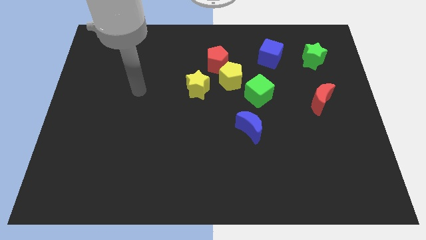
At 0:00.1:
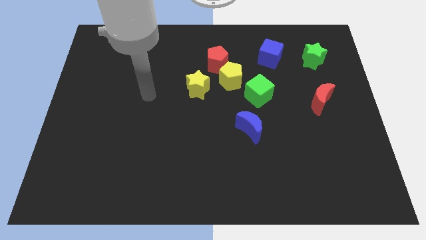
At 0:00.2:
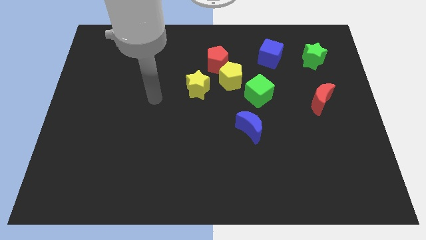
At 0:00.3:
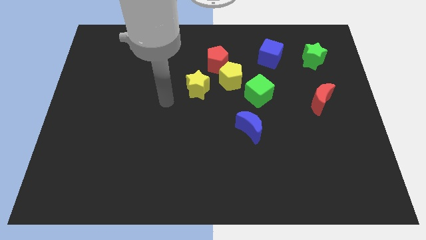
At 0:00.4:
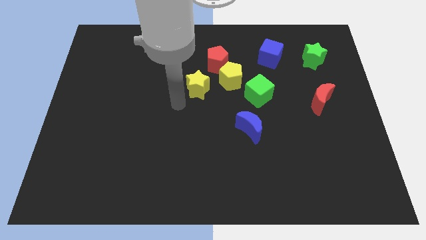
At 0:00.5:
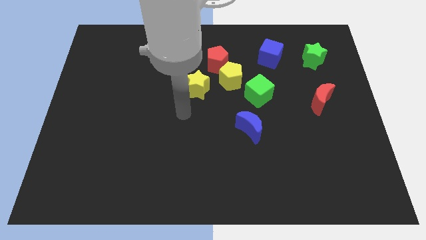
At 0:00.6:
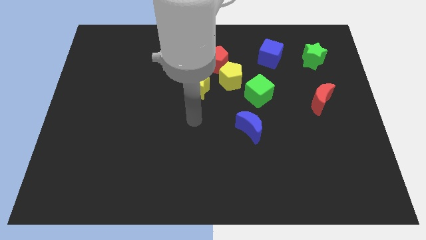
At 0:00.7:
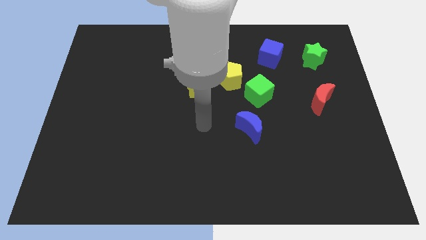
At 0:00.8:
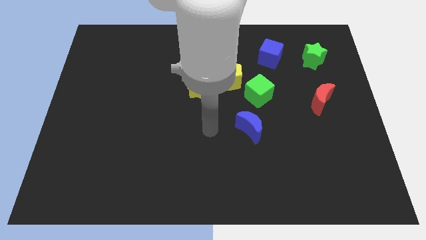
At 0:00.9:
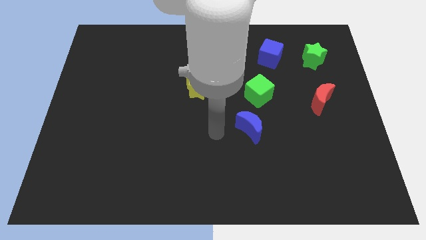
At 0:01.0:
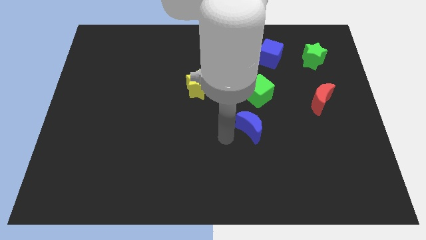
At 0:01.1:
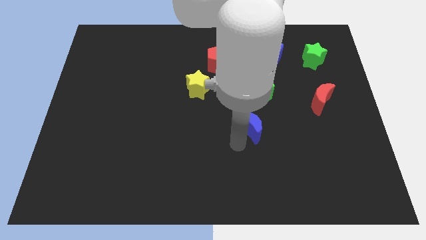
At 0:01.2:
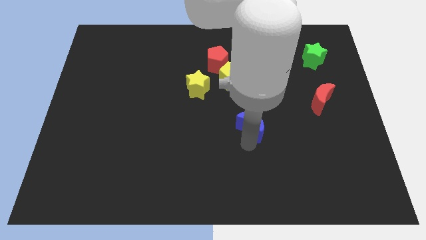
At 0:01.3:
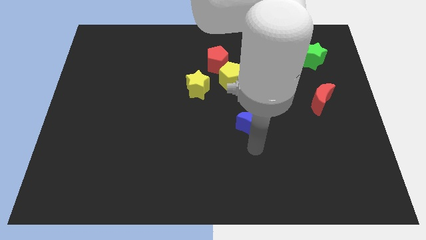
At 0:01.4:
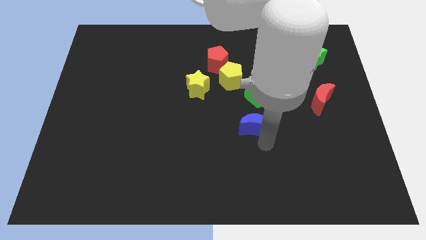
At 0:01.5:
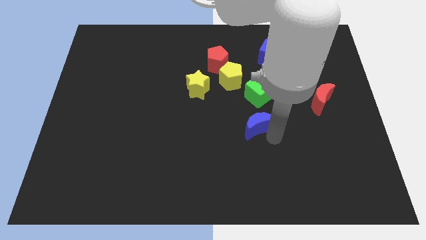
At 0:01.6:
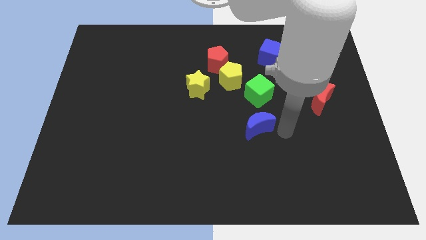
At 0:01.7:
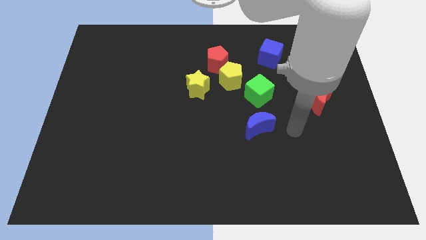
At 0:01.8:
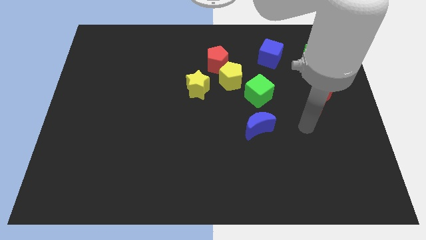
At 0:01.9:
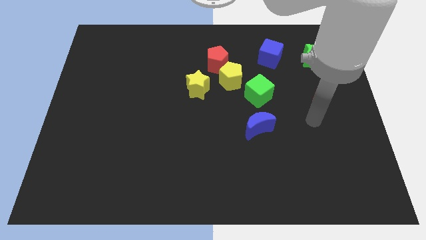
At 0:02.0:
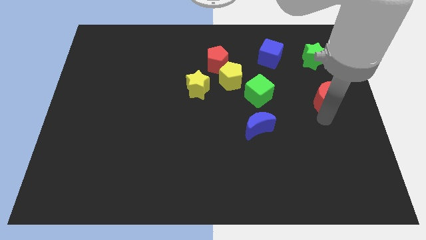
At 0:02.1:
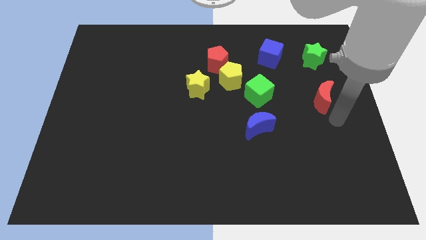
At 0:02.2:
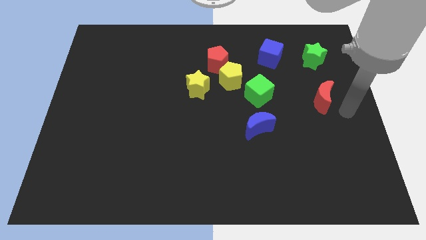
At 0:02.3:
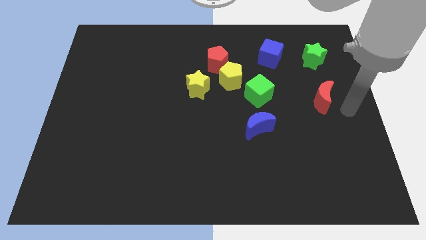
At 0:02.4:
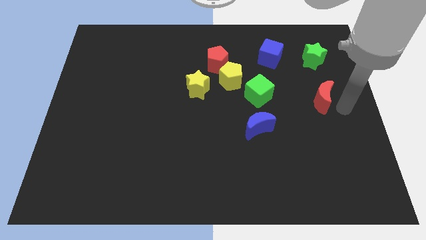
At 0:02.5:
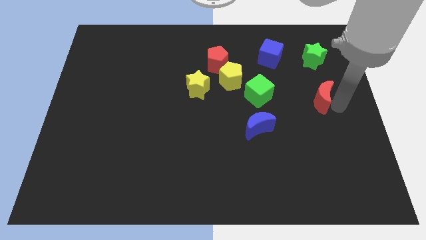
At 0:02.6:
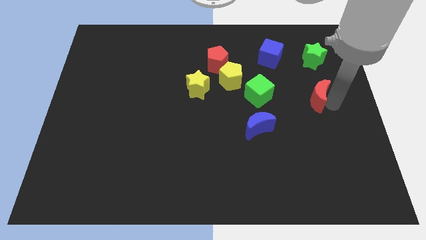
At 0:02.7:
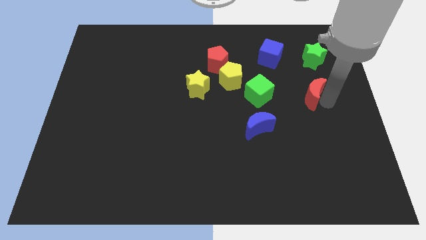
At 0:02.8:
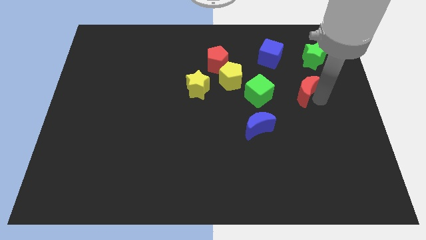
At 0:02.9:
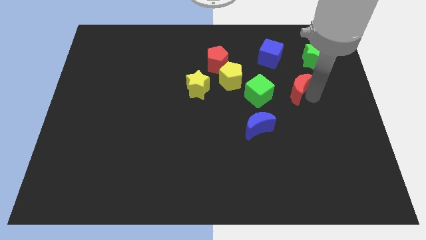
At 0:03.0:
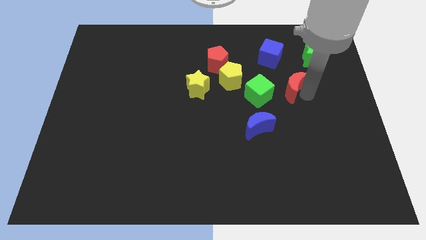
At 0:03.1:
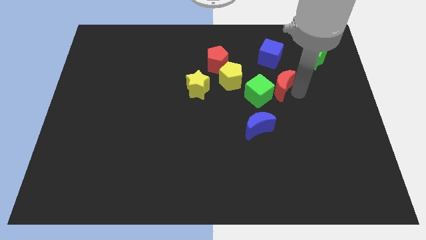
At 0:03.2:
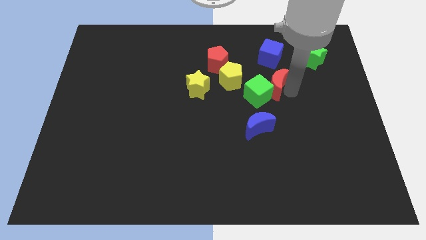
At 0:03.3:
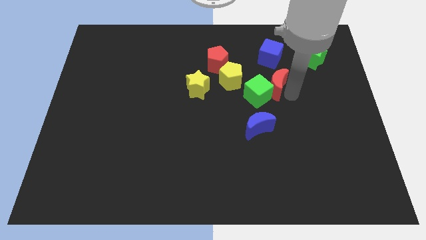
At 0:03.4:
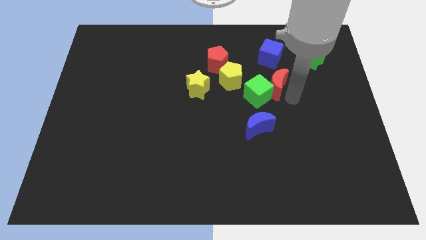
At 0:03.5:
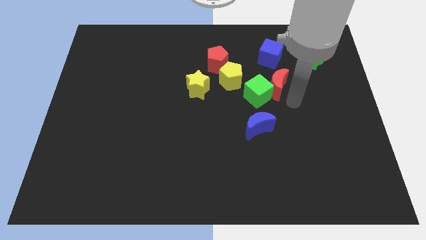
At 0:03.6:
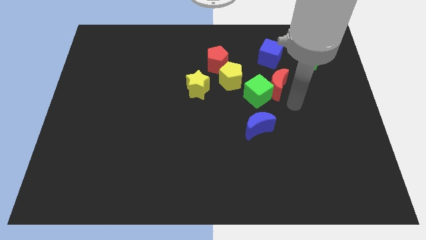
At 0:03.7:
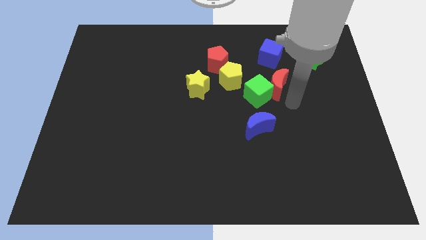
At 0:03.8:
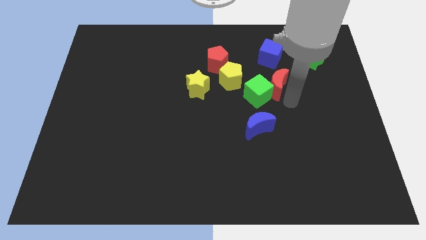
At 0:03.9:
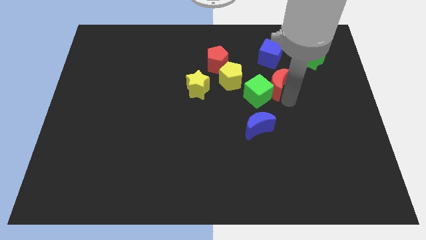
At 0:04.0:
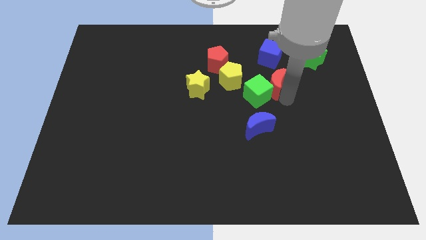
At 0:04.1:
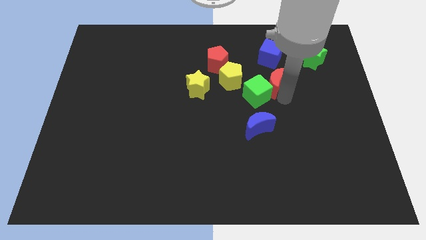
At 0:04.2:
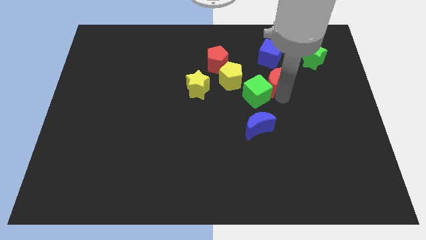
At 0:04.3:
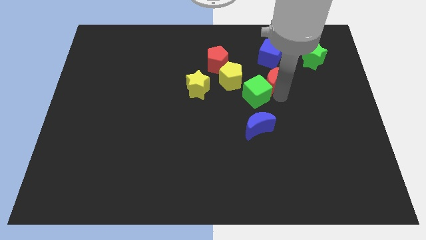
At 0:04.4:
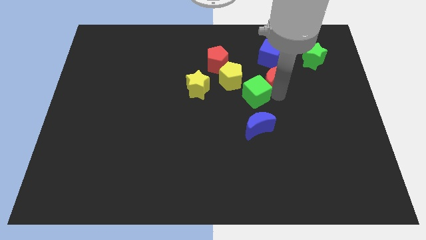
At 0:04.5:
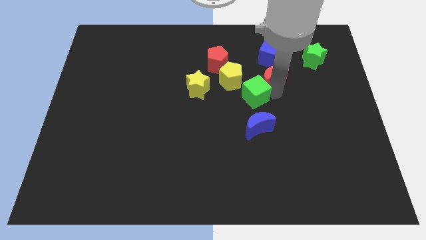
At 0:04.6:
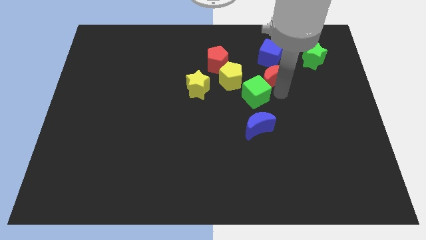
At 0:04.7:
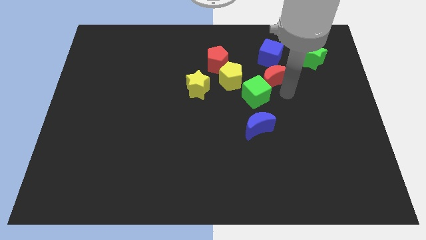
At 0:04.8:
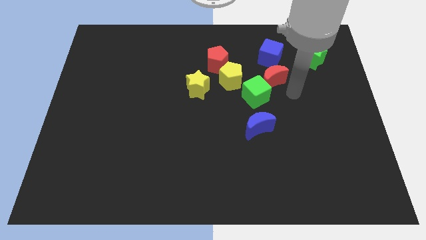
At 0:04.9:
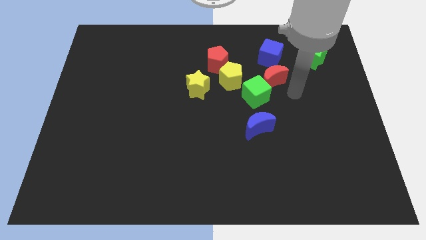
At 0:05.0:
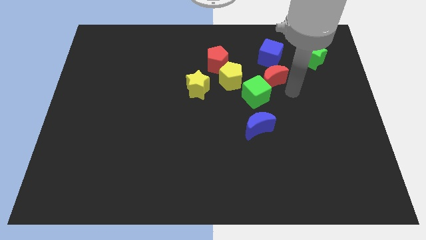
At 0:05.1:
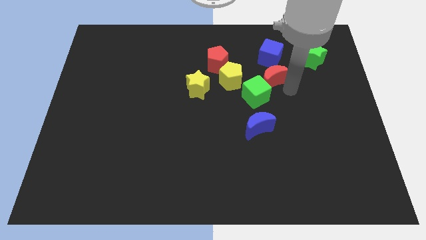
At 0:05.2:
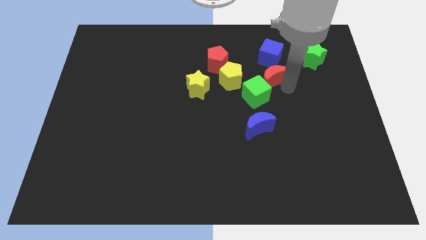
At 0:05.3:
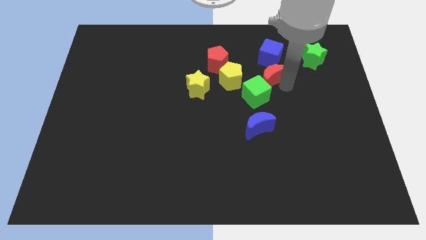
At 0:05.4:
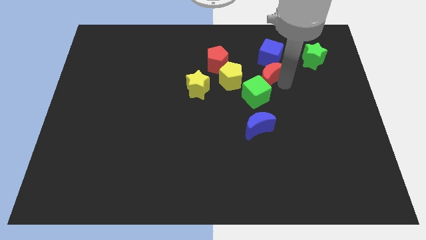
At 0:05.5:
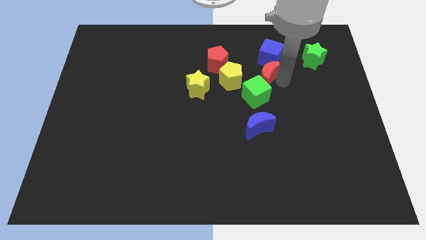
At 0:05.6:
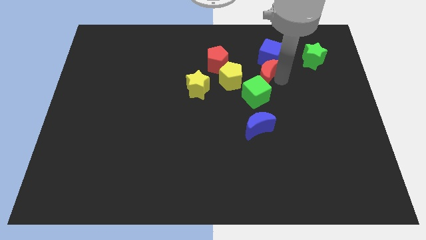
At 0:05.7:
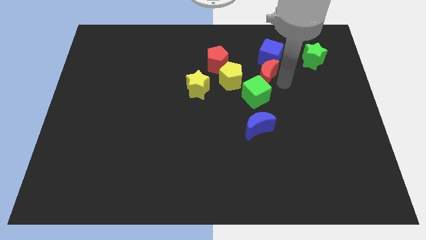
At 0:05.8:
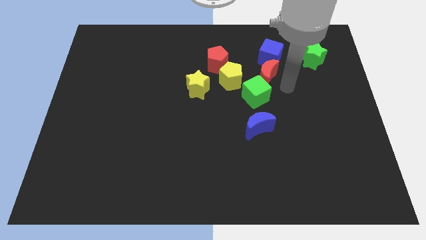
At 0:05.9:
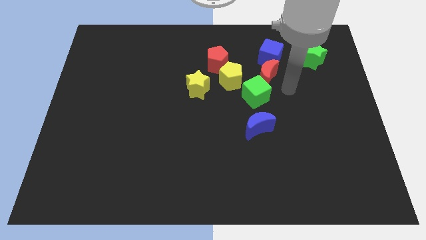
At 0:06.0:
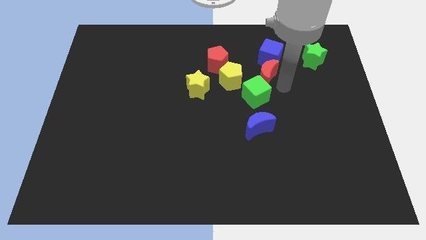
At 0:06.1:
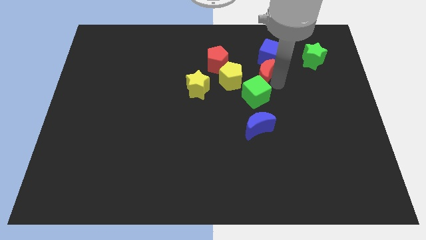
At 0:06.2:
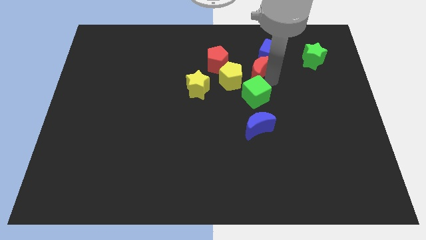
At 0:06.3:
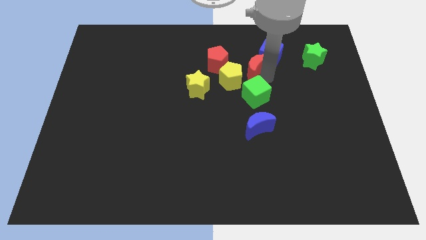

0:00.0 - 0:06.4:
put the red moon to the left side of the blue cube
